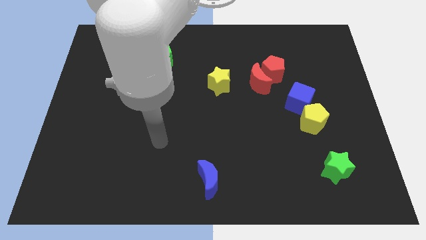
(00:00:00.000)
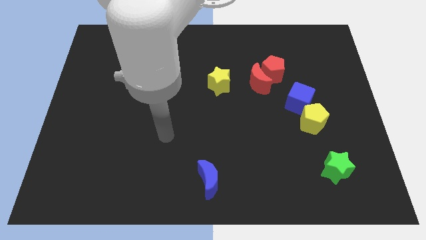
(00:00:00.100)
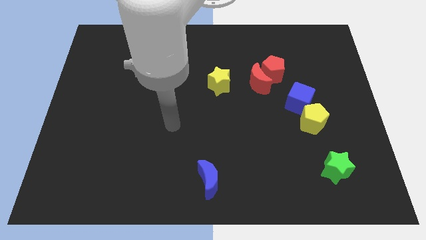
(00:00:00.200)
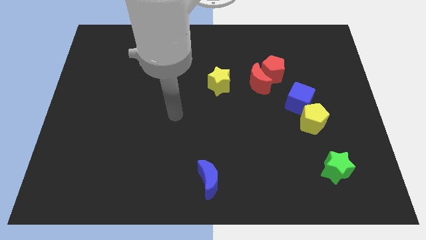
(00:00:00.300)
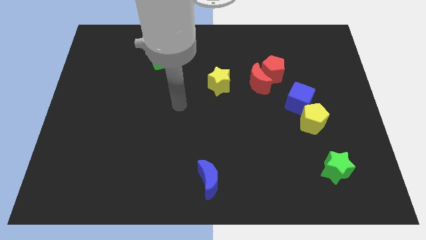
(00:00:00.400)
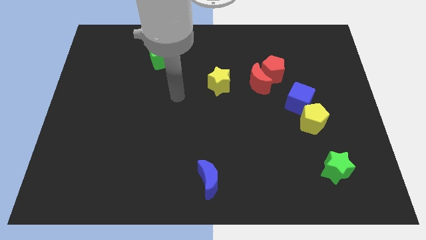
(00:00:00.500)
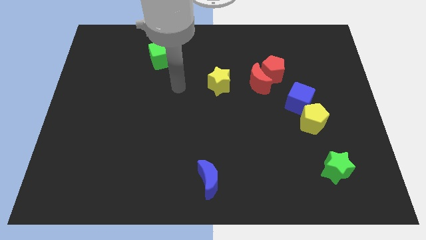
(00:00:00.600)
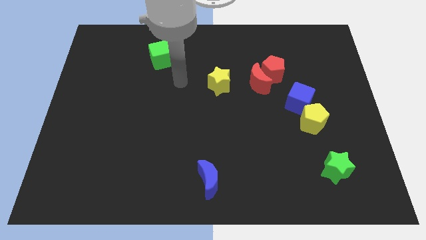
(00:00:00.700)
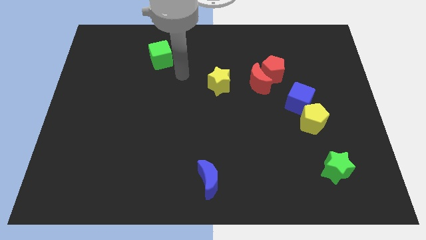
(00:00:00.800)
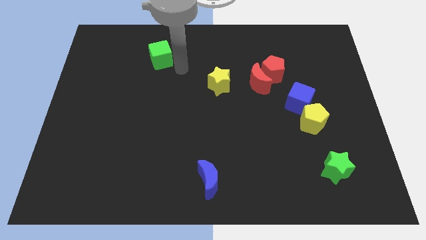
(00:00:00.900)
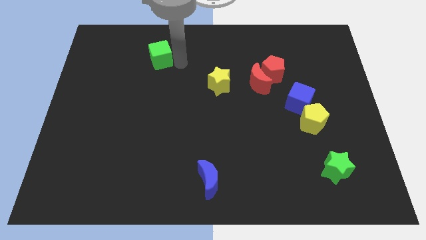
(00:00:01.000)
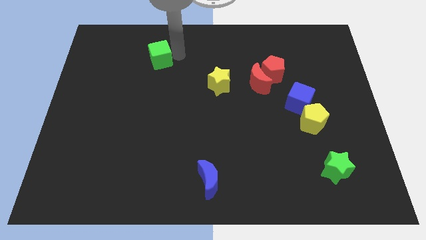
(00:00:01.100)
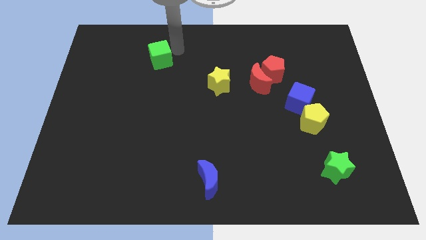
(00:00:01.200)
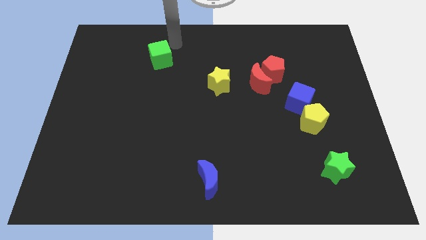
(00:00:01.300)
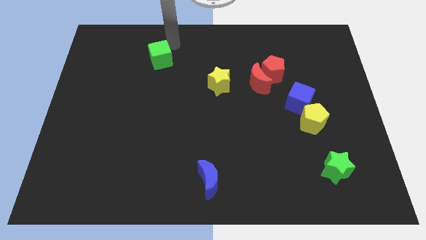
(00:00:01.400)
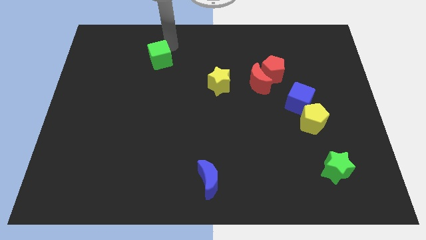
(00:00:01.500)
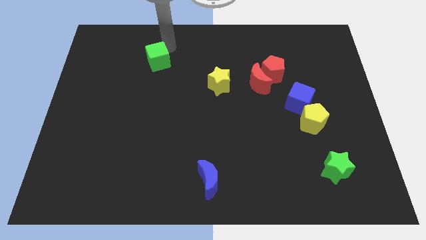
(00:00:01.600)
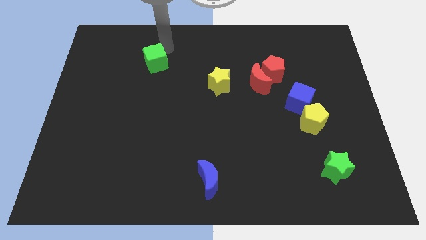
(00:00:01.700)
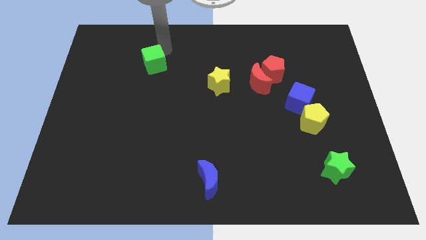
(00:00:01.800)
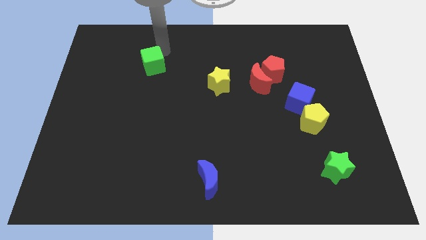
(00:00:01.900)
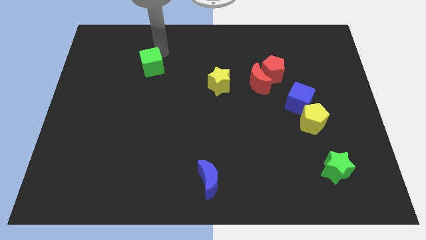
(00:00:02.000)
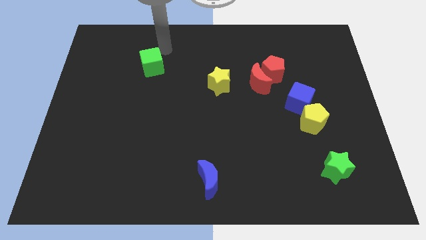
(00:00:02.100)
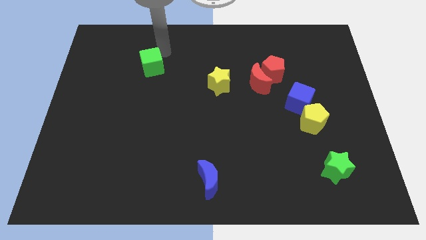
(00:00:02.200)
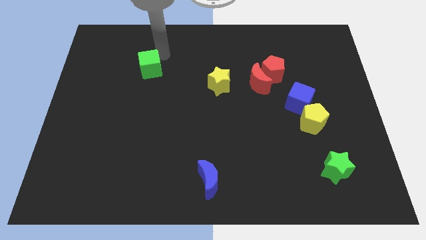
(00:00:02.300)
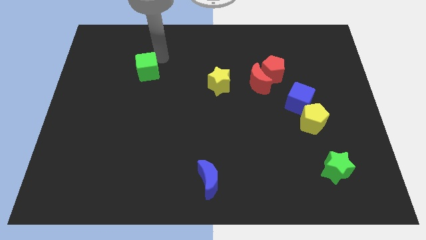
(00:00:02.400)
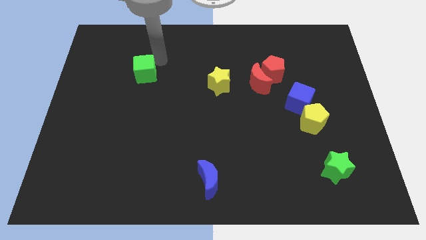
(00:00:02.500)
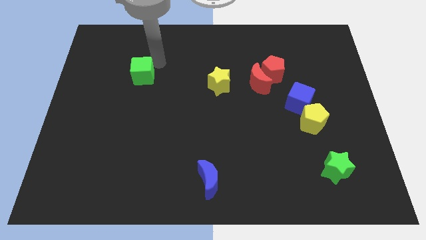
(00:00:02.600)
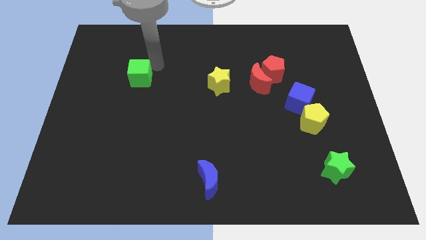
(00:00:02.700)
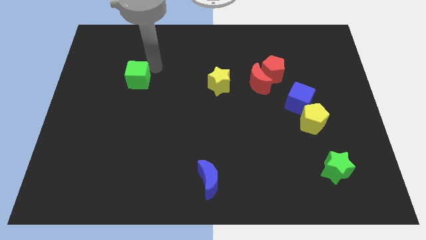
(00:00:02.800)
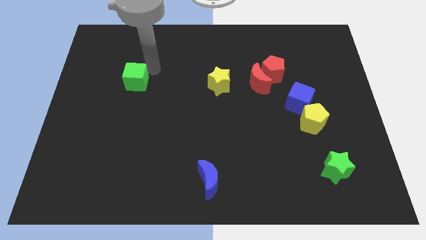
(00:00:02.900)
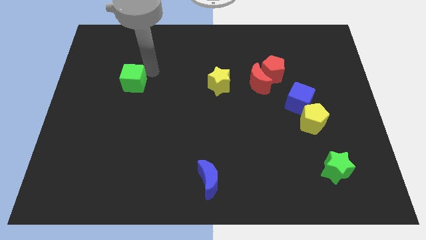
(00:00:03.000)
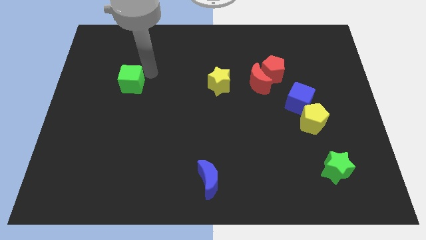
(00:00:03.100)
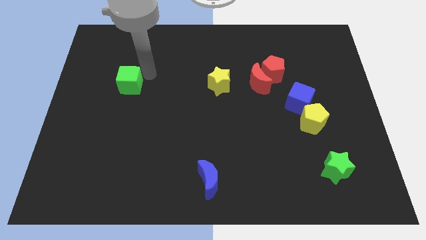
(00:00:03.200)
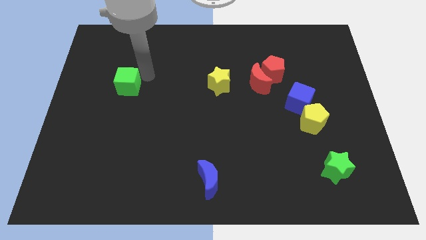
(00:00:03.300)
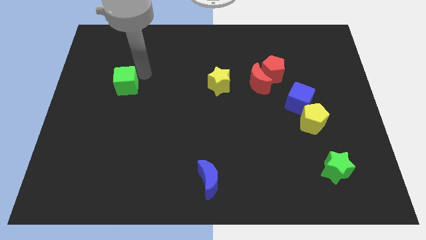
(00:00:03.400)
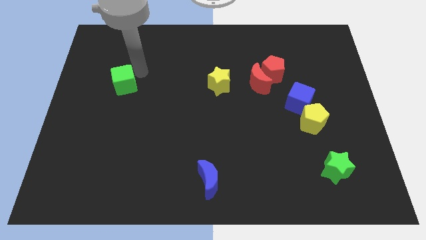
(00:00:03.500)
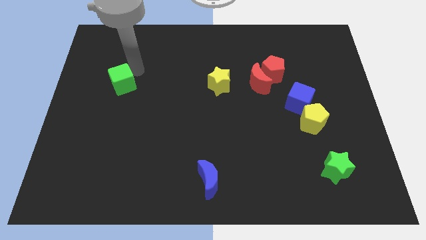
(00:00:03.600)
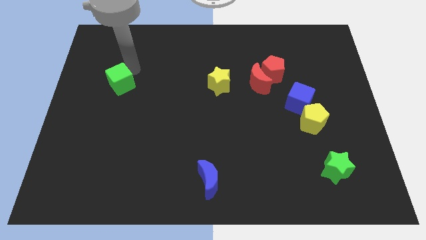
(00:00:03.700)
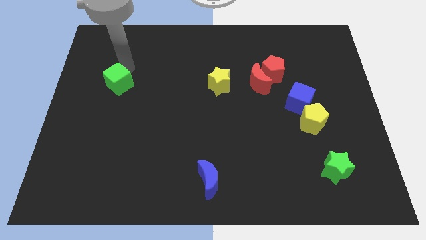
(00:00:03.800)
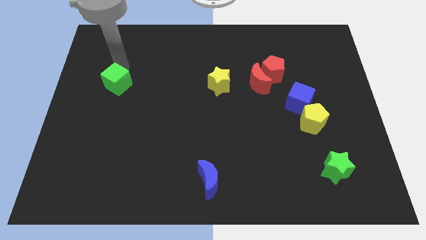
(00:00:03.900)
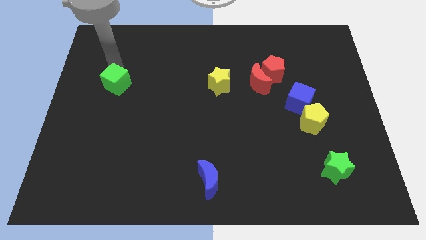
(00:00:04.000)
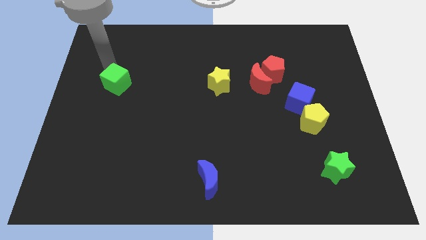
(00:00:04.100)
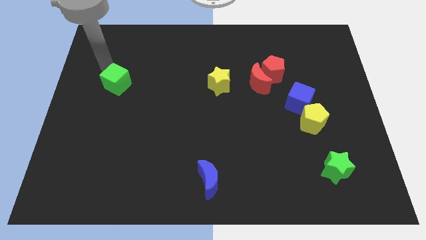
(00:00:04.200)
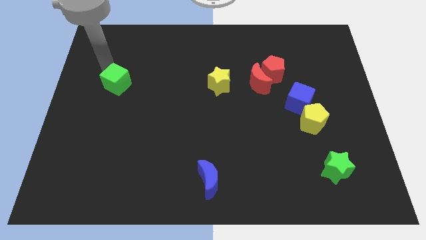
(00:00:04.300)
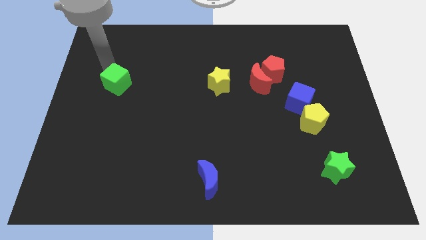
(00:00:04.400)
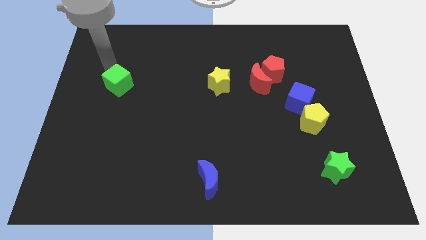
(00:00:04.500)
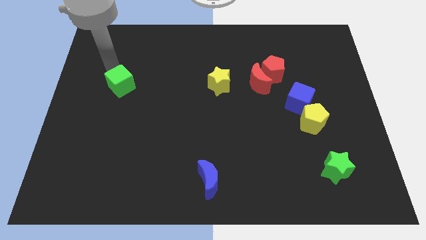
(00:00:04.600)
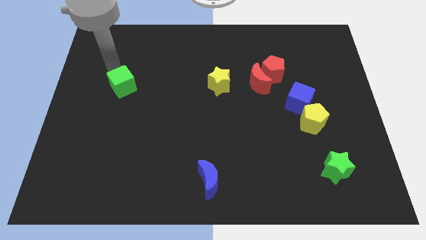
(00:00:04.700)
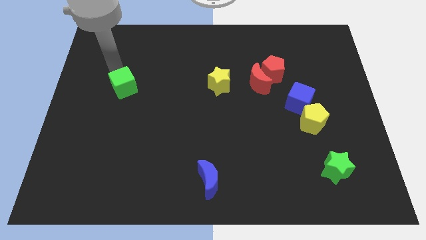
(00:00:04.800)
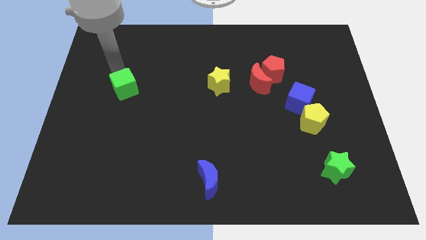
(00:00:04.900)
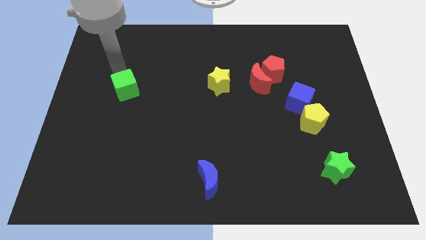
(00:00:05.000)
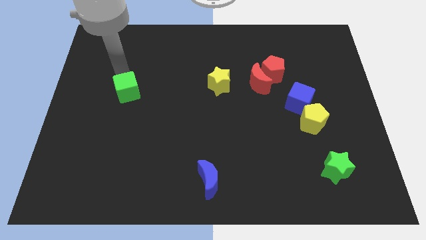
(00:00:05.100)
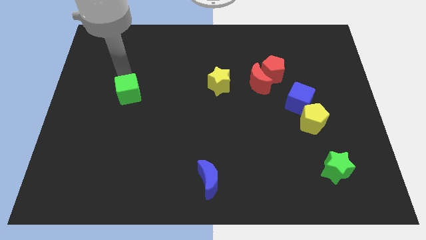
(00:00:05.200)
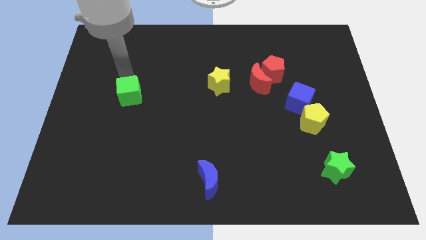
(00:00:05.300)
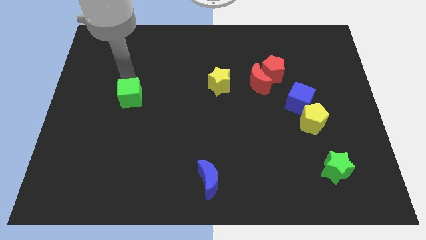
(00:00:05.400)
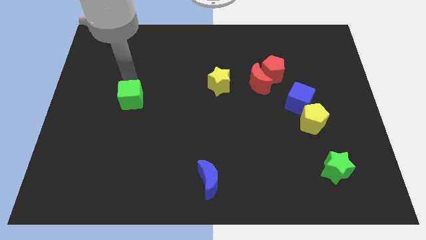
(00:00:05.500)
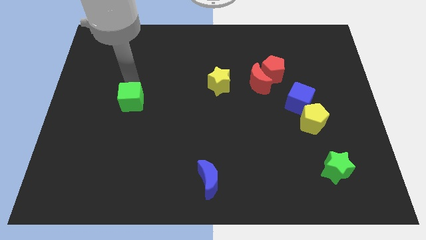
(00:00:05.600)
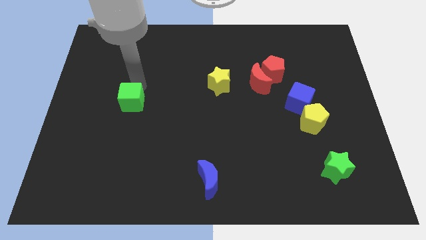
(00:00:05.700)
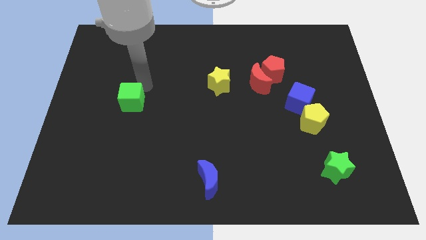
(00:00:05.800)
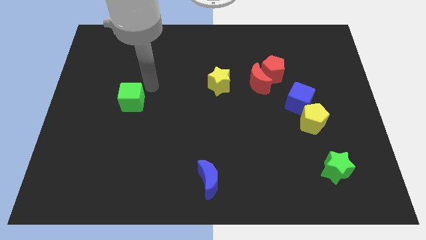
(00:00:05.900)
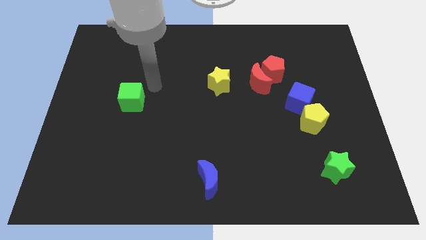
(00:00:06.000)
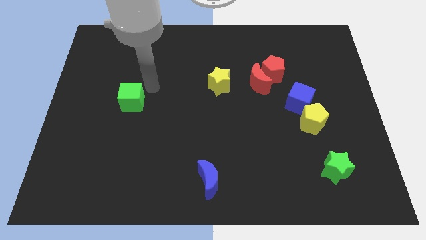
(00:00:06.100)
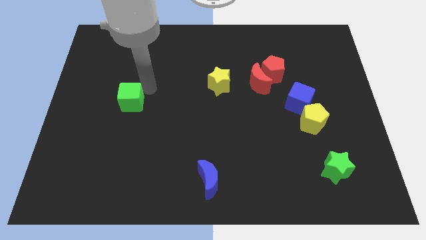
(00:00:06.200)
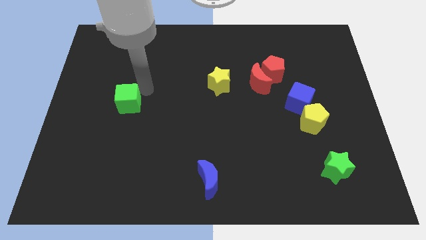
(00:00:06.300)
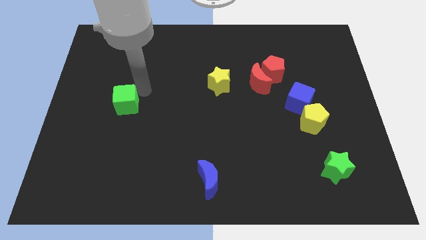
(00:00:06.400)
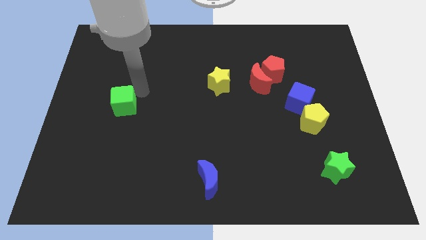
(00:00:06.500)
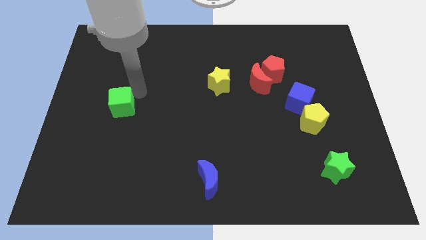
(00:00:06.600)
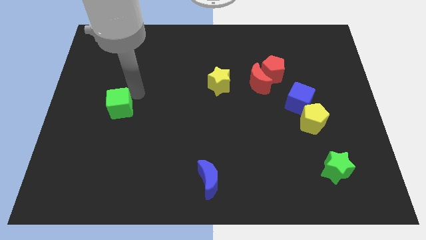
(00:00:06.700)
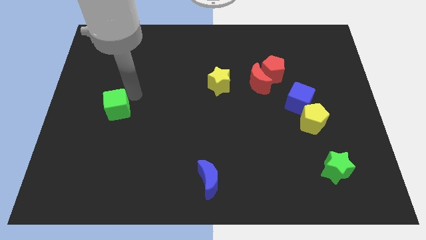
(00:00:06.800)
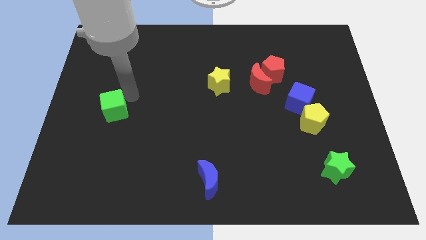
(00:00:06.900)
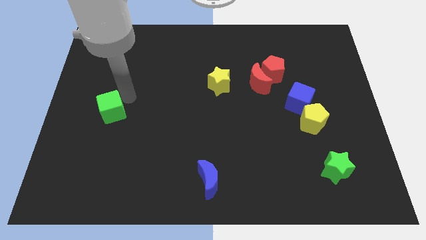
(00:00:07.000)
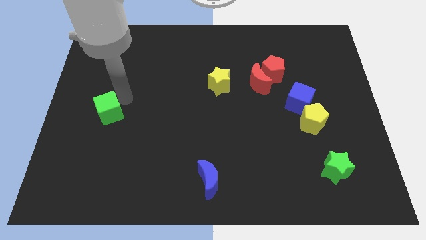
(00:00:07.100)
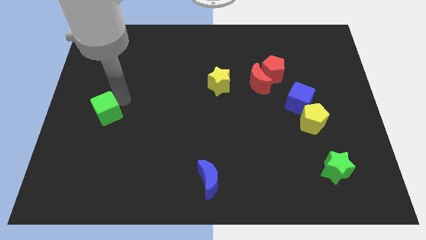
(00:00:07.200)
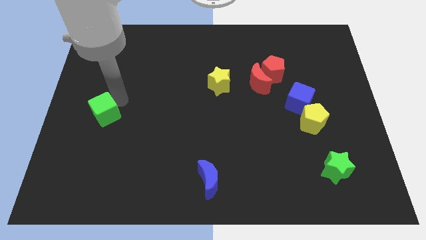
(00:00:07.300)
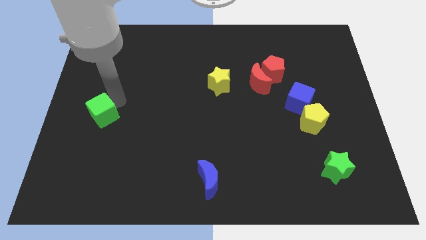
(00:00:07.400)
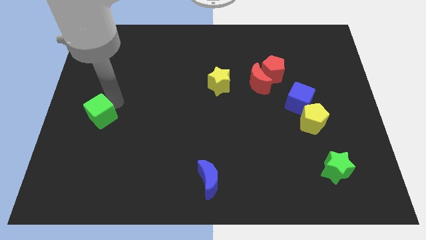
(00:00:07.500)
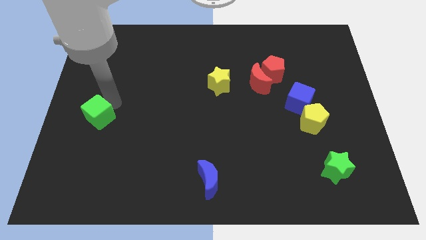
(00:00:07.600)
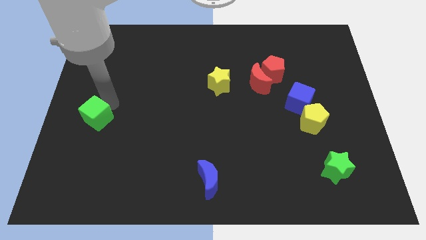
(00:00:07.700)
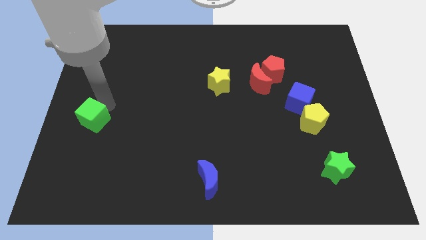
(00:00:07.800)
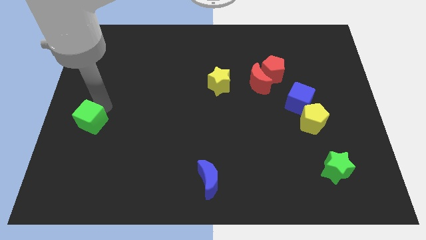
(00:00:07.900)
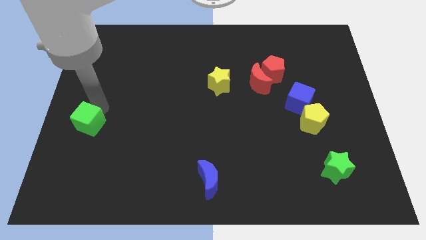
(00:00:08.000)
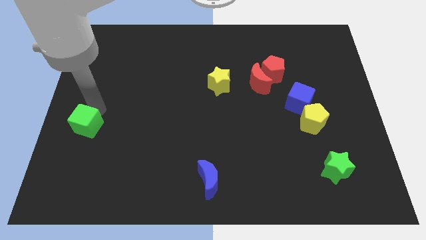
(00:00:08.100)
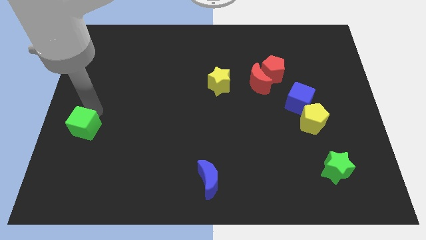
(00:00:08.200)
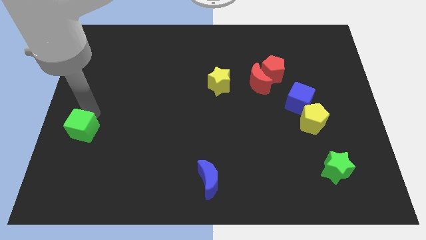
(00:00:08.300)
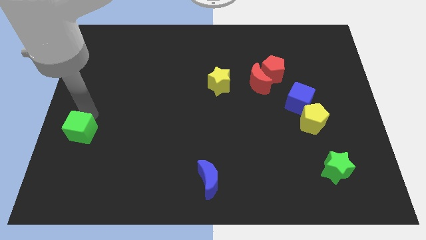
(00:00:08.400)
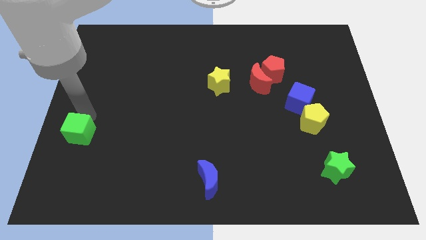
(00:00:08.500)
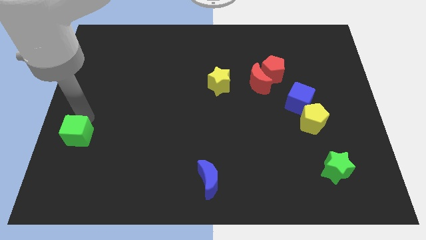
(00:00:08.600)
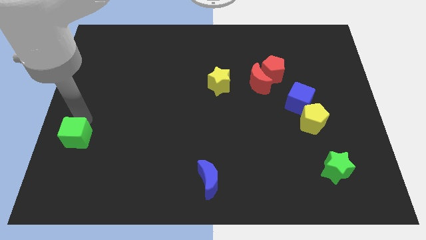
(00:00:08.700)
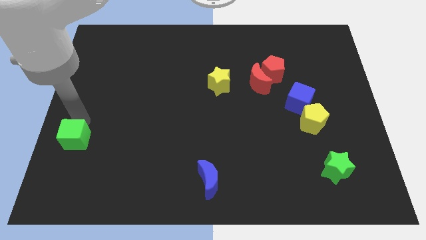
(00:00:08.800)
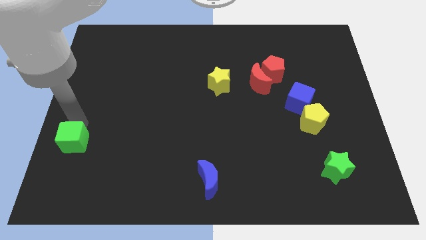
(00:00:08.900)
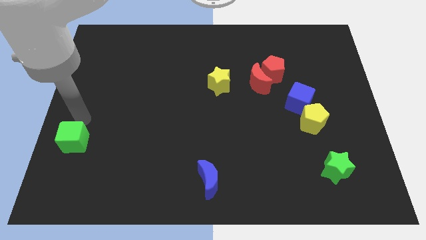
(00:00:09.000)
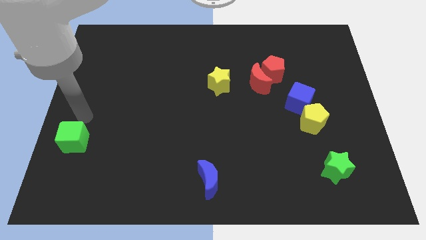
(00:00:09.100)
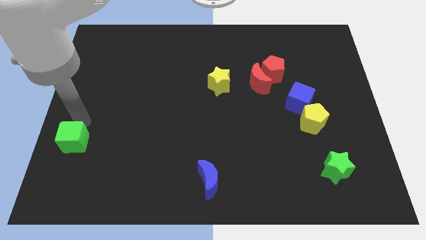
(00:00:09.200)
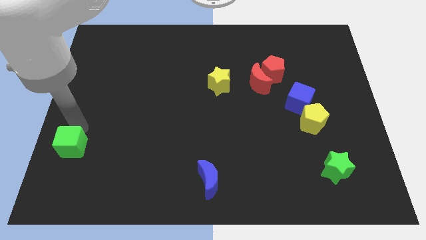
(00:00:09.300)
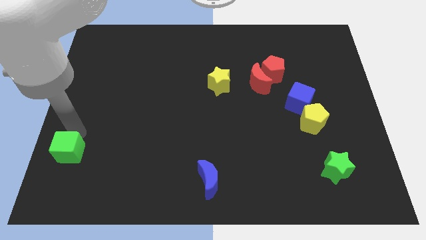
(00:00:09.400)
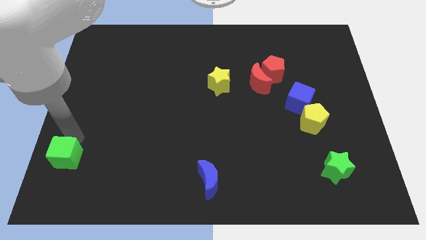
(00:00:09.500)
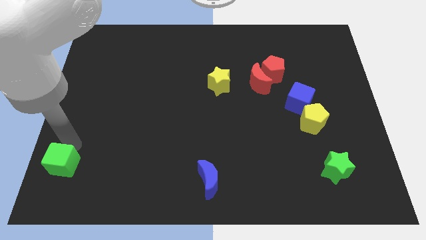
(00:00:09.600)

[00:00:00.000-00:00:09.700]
put the green cube to the bottom left corner
